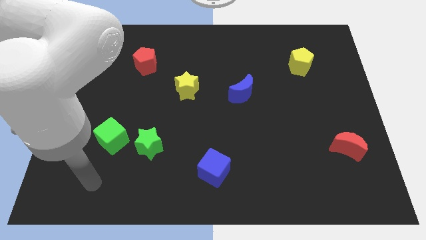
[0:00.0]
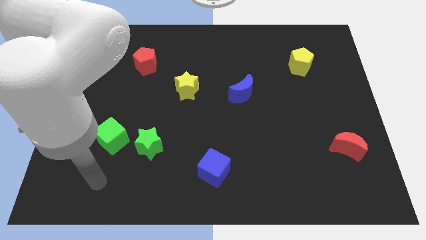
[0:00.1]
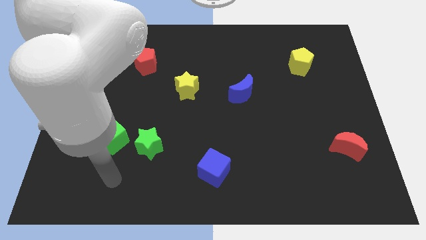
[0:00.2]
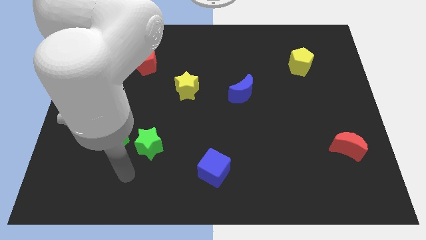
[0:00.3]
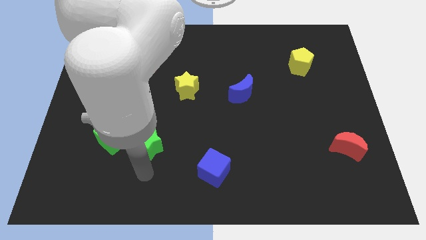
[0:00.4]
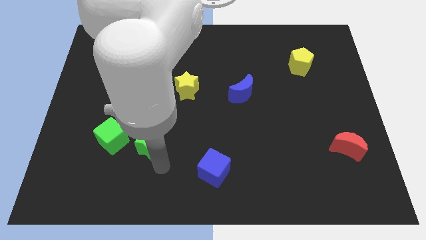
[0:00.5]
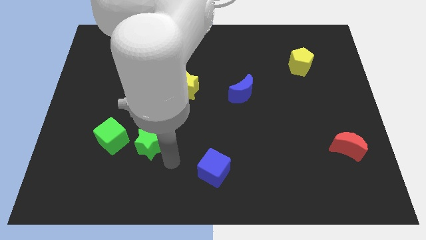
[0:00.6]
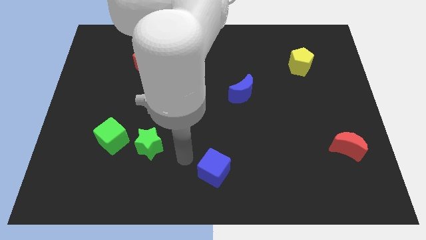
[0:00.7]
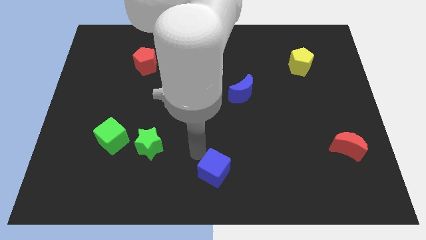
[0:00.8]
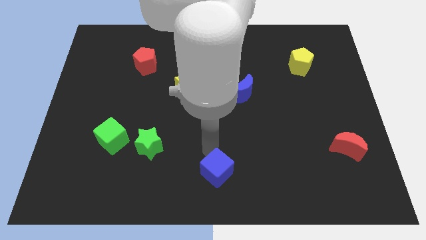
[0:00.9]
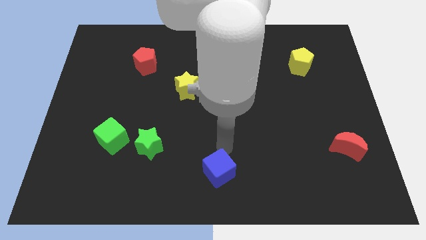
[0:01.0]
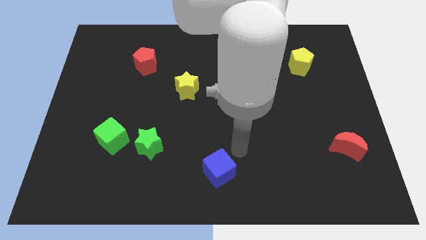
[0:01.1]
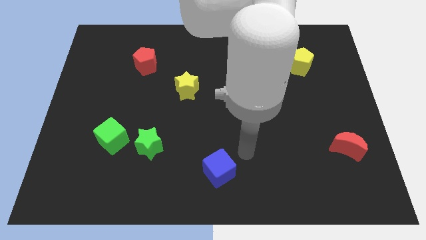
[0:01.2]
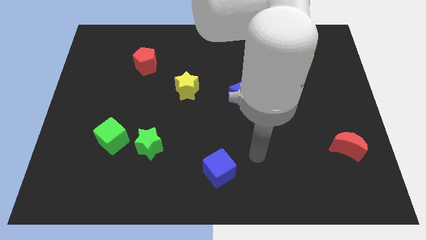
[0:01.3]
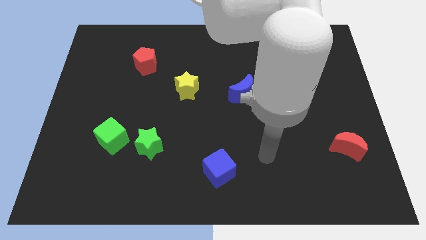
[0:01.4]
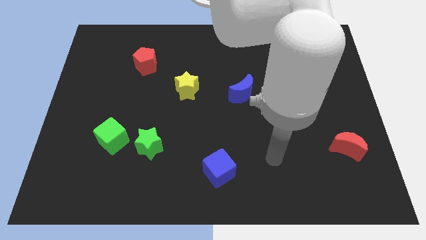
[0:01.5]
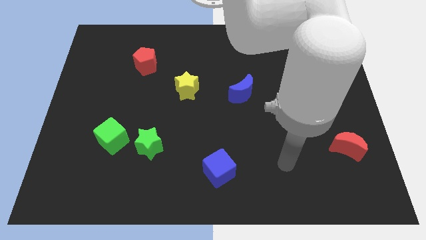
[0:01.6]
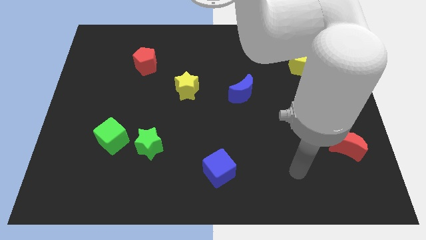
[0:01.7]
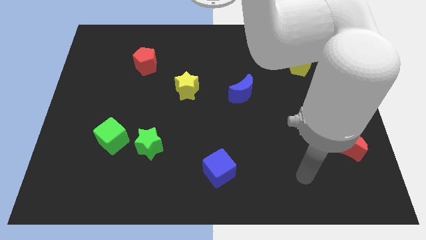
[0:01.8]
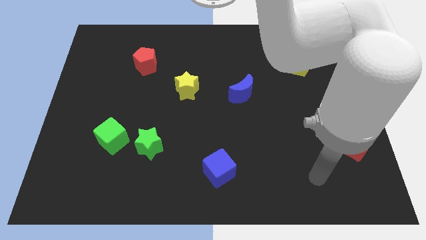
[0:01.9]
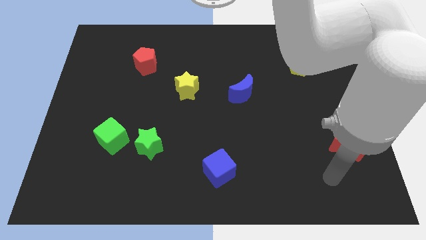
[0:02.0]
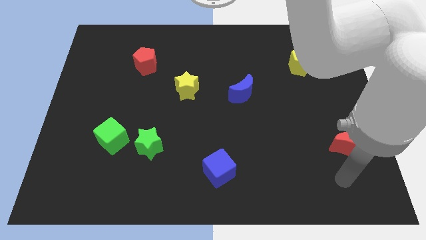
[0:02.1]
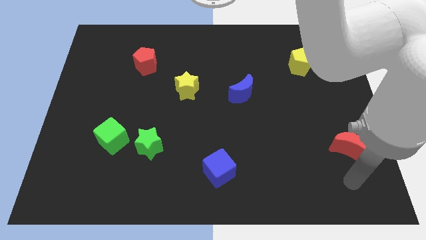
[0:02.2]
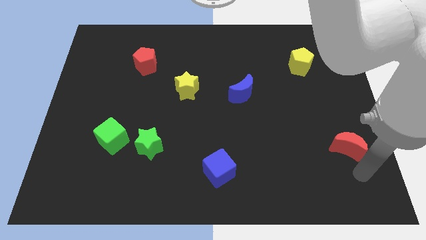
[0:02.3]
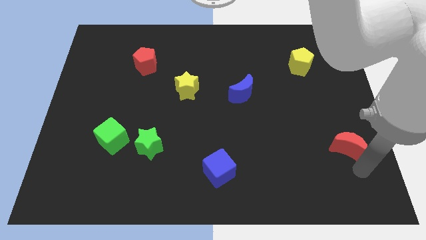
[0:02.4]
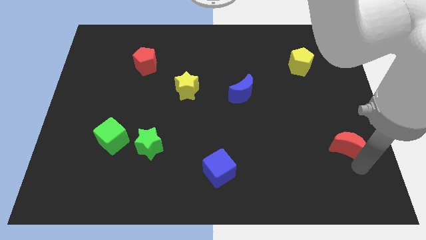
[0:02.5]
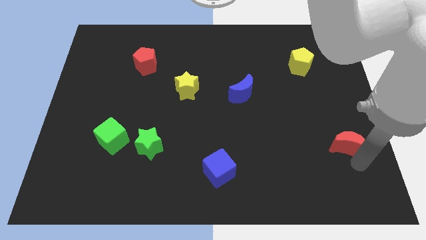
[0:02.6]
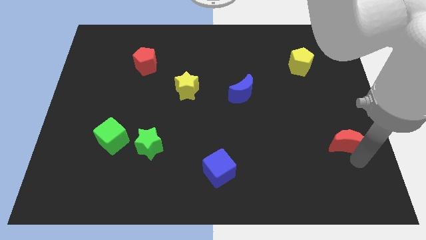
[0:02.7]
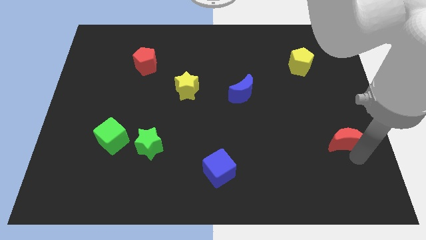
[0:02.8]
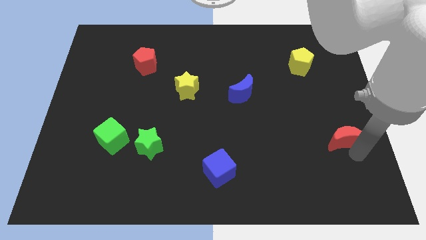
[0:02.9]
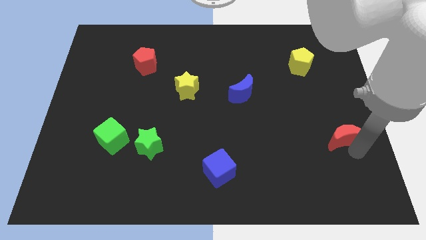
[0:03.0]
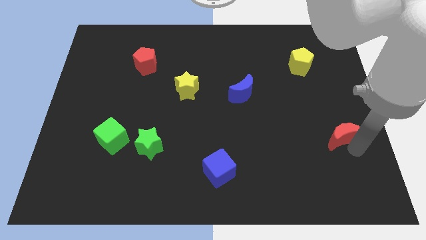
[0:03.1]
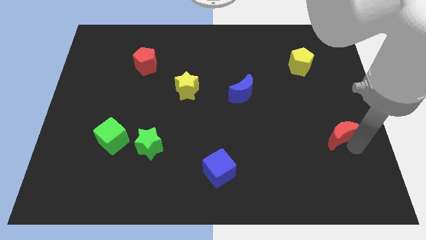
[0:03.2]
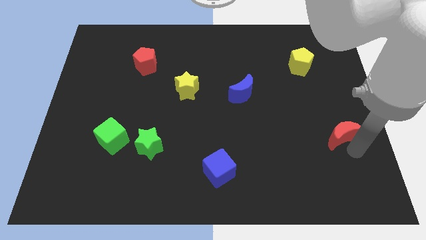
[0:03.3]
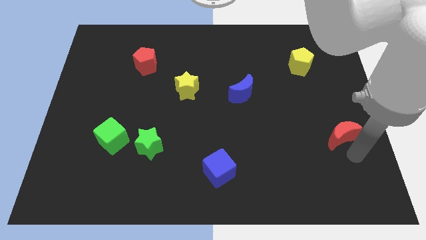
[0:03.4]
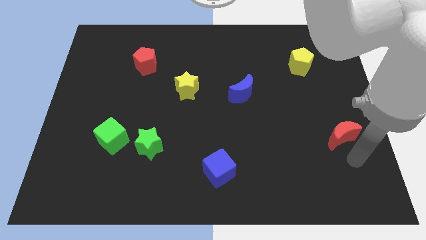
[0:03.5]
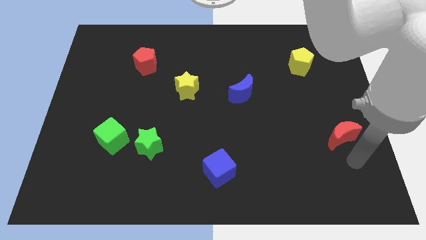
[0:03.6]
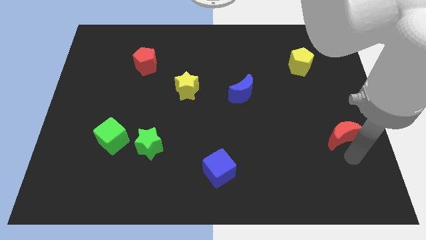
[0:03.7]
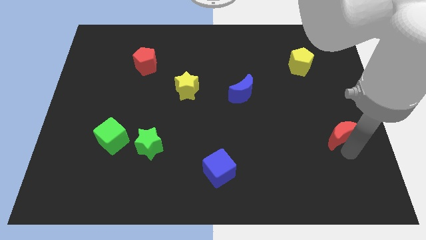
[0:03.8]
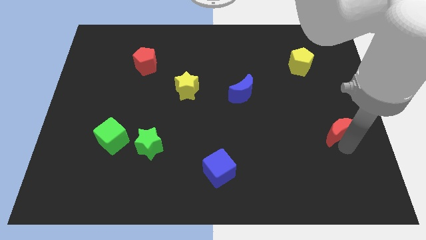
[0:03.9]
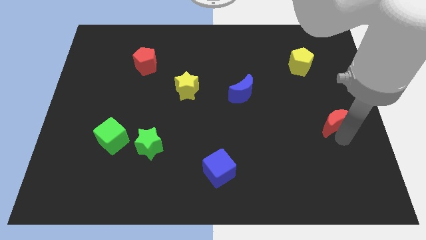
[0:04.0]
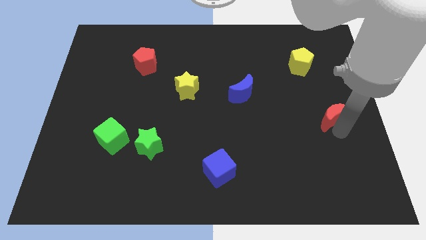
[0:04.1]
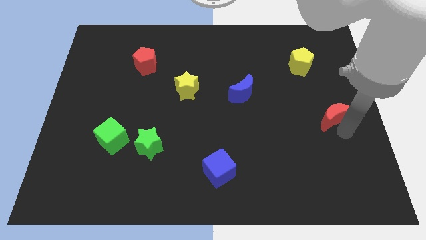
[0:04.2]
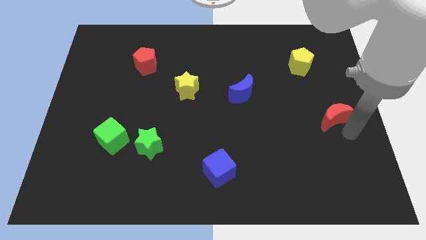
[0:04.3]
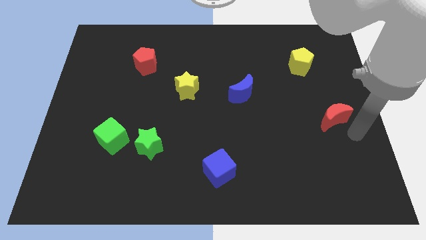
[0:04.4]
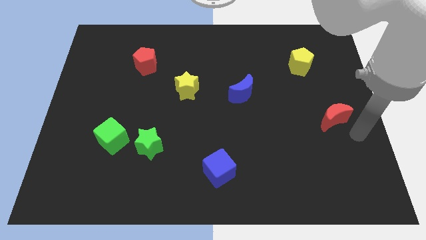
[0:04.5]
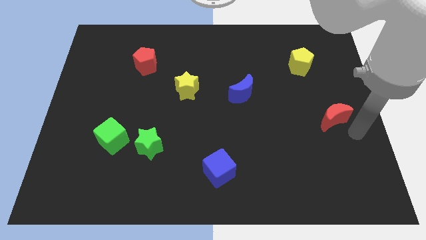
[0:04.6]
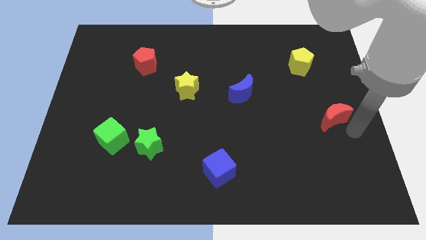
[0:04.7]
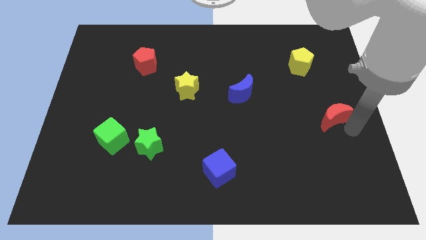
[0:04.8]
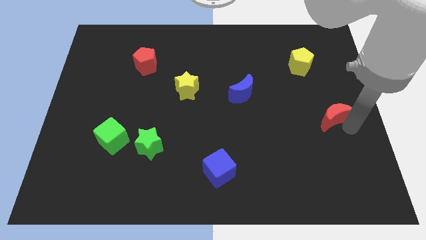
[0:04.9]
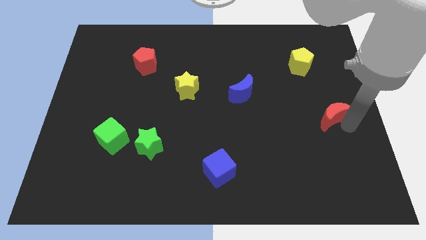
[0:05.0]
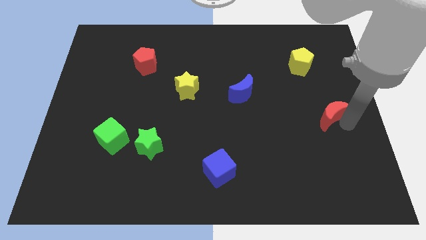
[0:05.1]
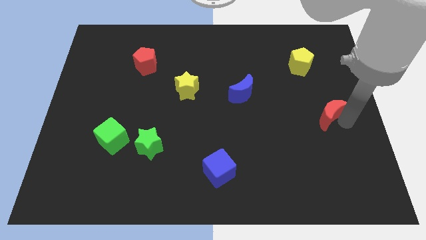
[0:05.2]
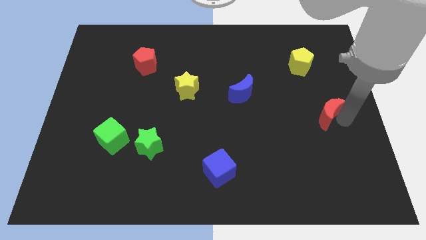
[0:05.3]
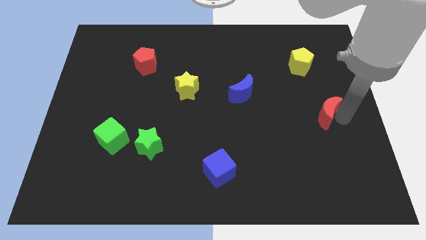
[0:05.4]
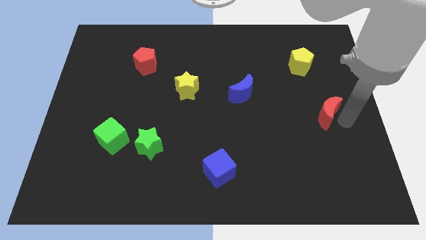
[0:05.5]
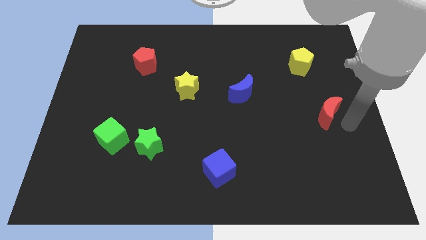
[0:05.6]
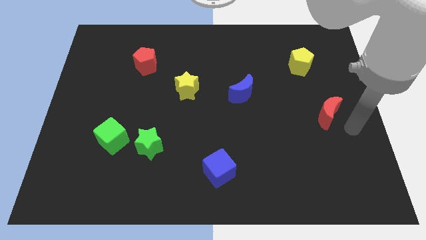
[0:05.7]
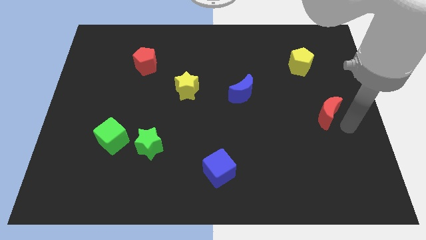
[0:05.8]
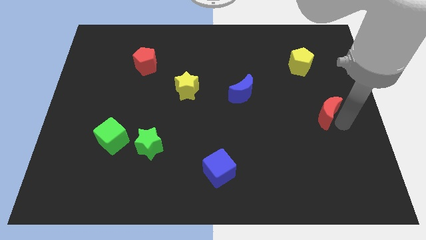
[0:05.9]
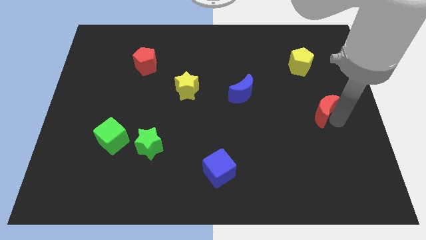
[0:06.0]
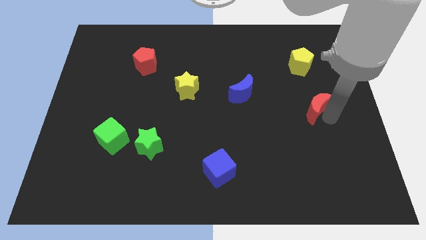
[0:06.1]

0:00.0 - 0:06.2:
put the red moon to the bottom of the yellow pentagon

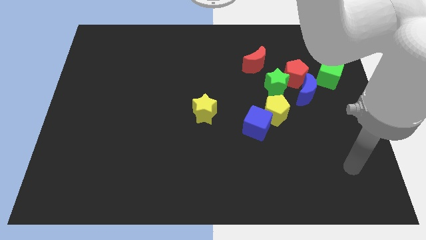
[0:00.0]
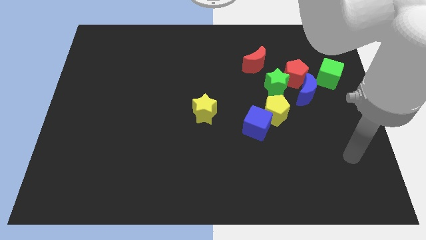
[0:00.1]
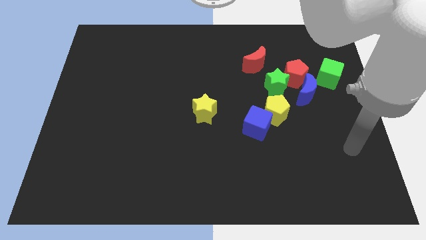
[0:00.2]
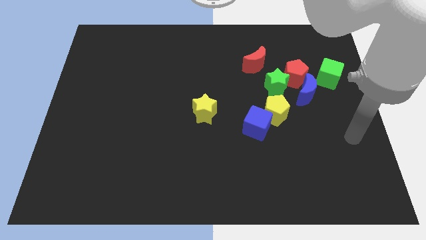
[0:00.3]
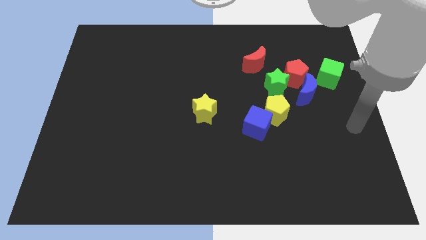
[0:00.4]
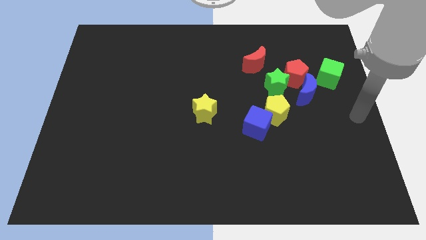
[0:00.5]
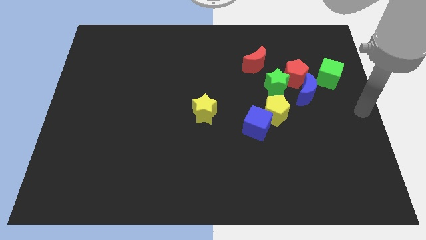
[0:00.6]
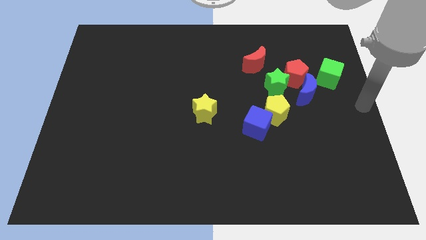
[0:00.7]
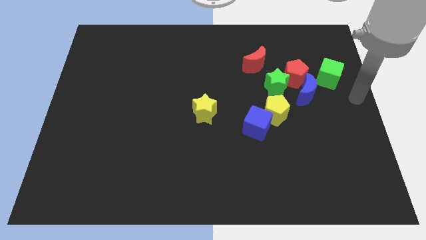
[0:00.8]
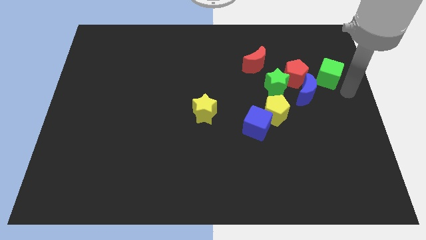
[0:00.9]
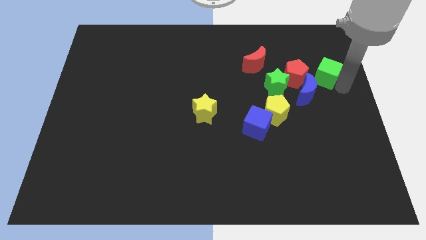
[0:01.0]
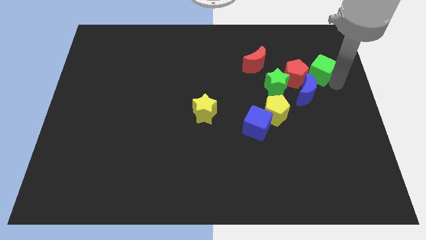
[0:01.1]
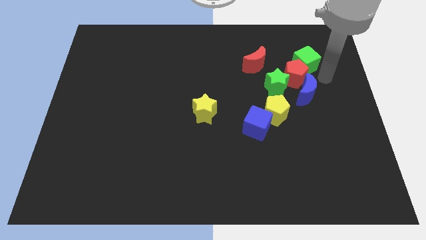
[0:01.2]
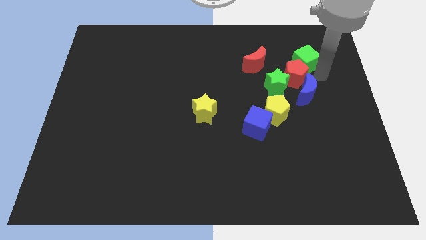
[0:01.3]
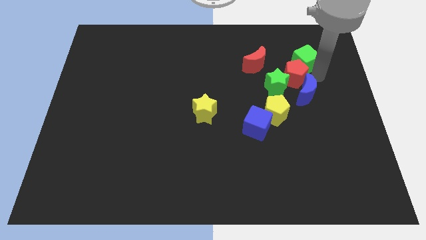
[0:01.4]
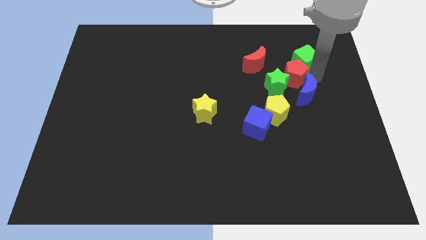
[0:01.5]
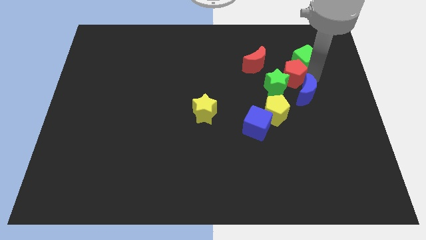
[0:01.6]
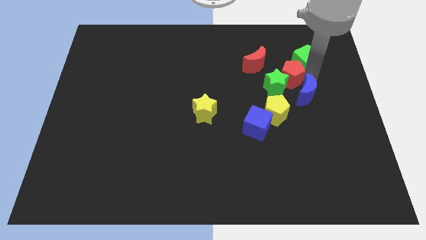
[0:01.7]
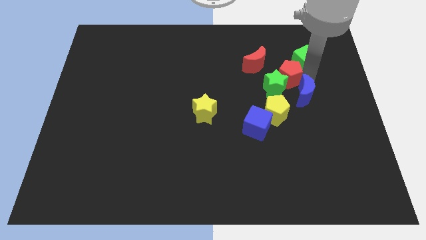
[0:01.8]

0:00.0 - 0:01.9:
slide the red pentagon above the yellow pentagon
